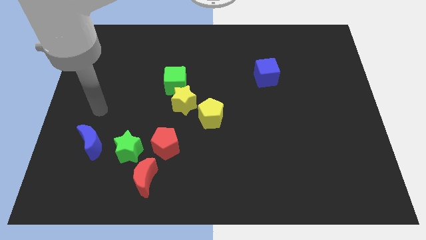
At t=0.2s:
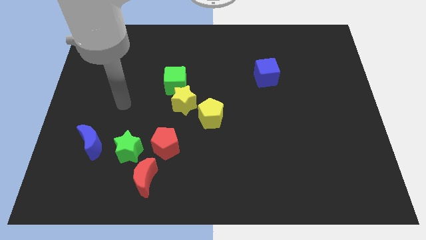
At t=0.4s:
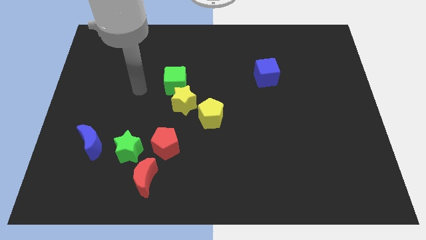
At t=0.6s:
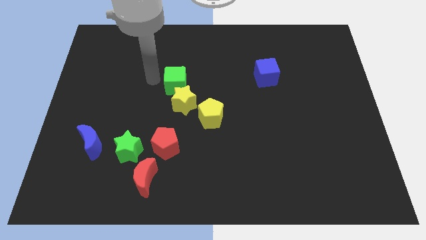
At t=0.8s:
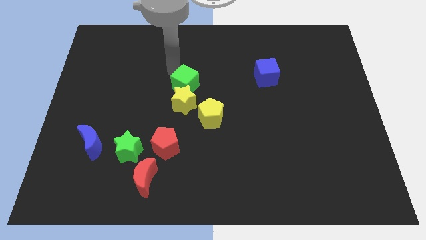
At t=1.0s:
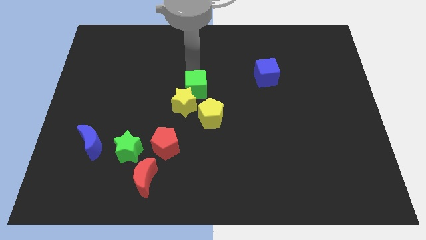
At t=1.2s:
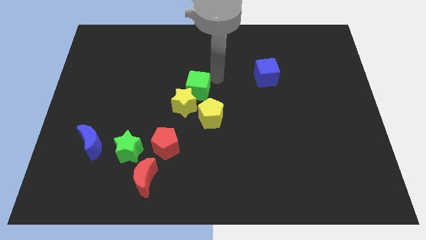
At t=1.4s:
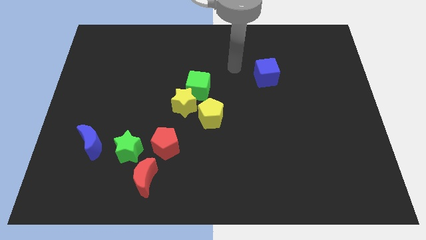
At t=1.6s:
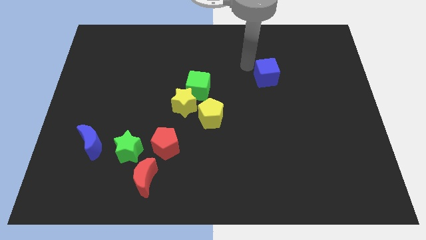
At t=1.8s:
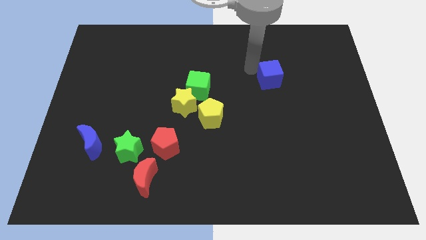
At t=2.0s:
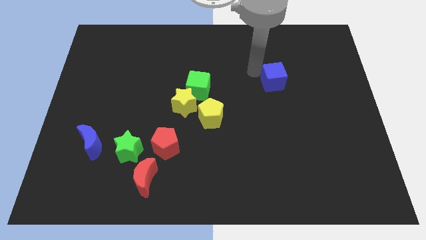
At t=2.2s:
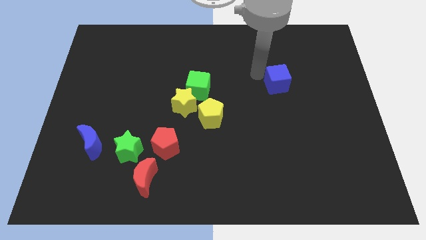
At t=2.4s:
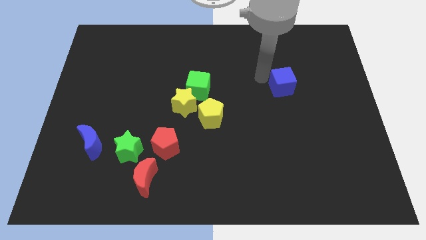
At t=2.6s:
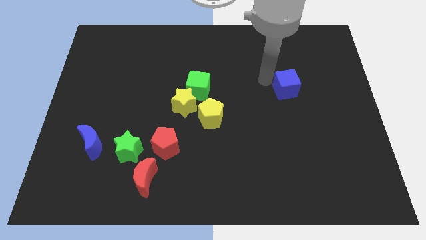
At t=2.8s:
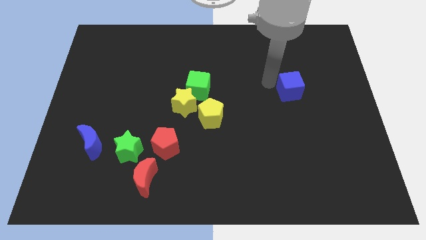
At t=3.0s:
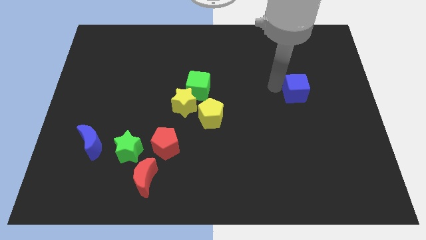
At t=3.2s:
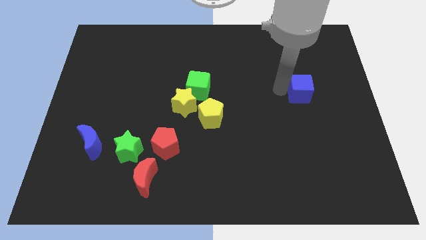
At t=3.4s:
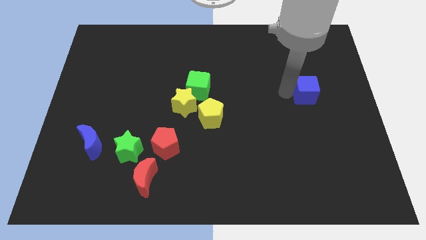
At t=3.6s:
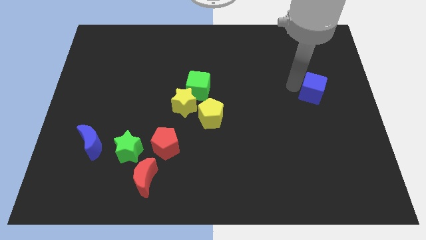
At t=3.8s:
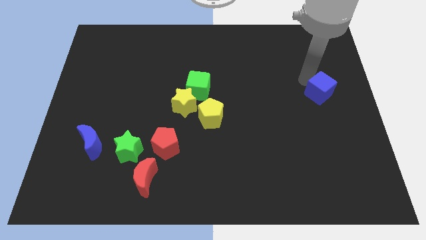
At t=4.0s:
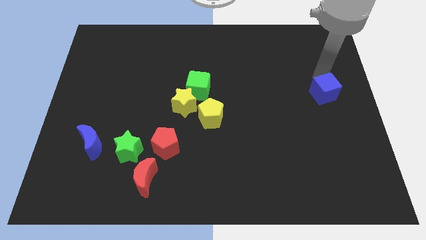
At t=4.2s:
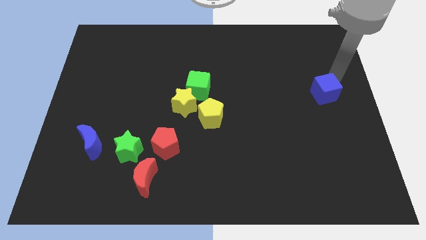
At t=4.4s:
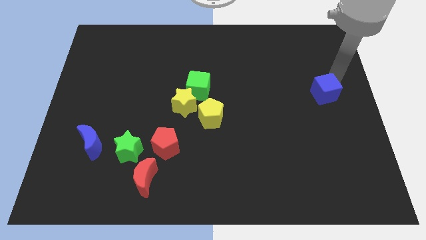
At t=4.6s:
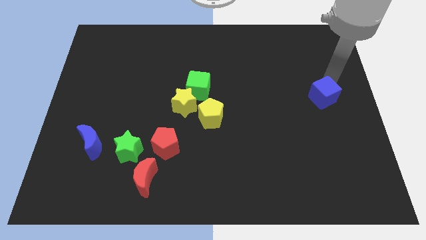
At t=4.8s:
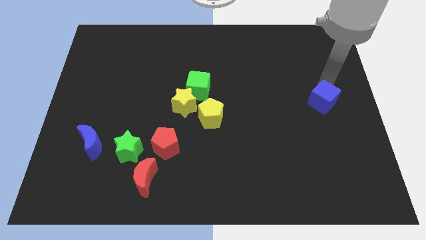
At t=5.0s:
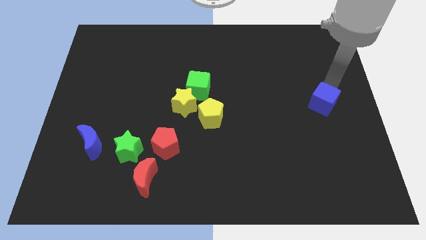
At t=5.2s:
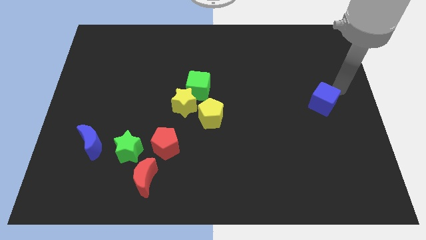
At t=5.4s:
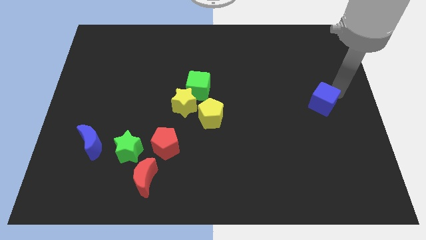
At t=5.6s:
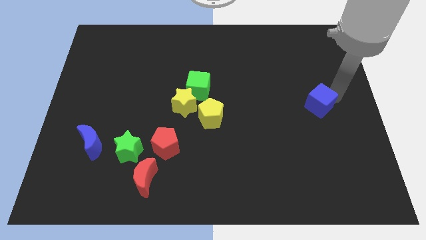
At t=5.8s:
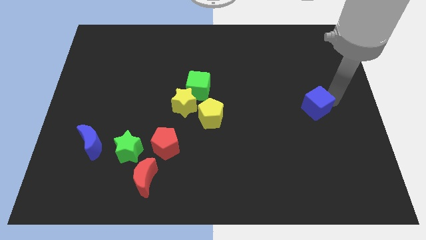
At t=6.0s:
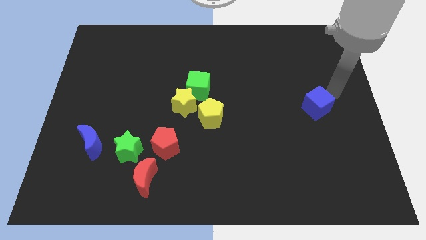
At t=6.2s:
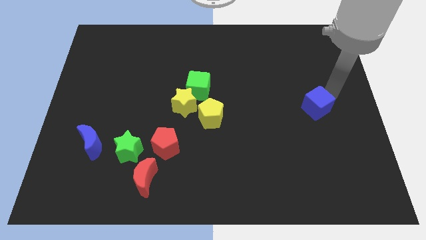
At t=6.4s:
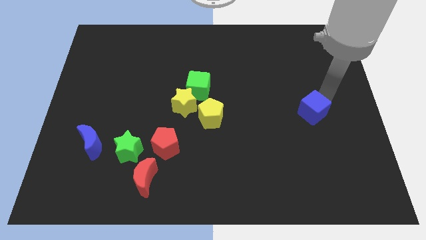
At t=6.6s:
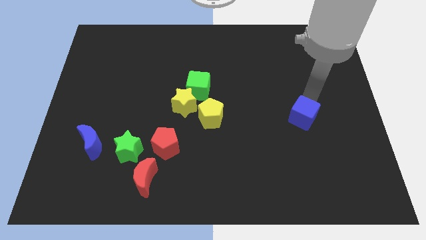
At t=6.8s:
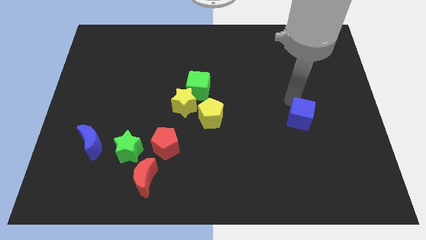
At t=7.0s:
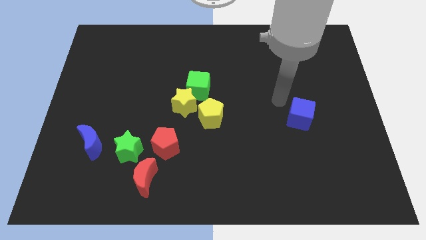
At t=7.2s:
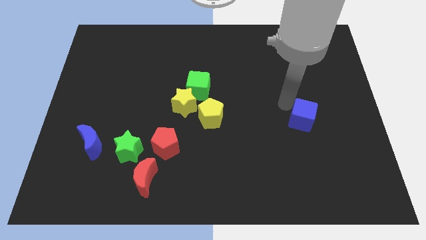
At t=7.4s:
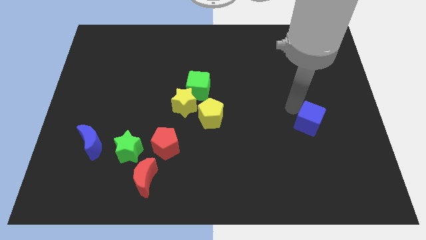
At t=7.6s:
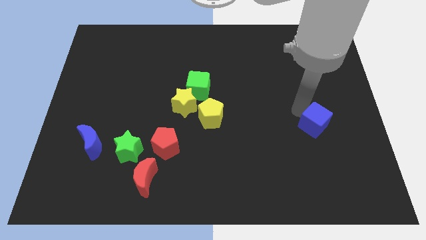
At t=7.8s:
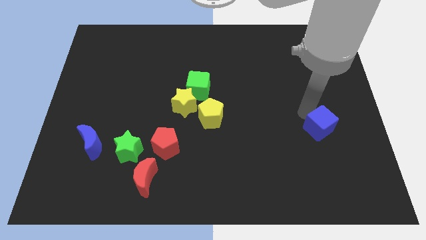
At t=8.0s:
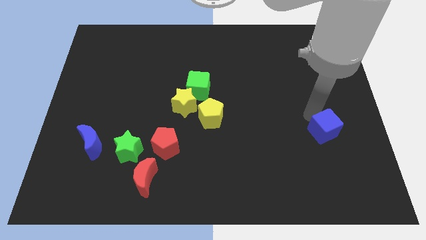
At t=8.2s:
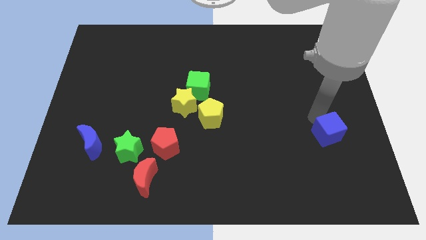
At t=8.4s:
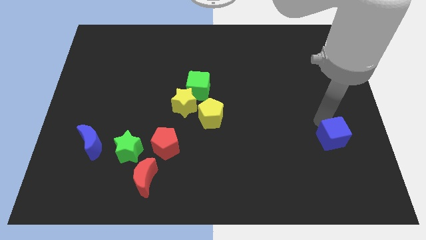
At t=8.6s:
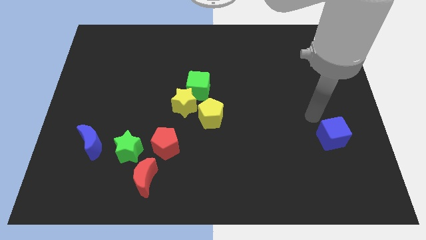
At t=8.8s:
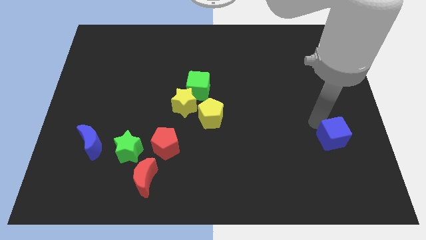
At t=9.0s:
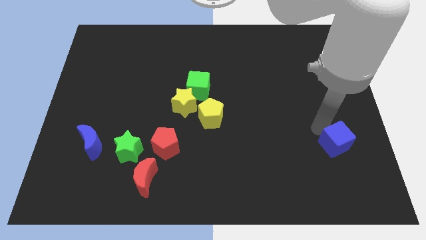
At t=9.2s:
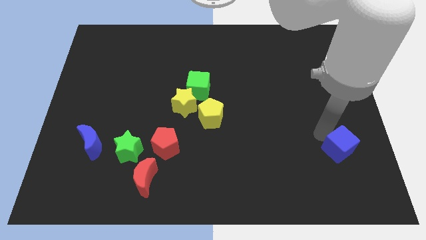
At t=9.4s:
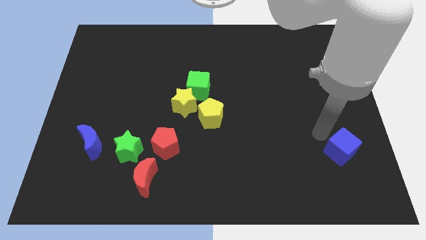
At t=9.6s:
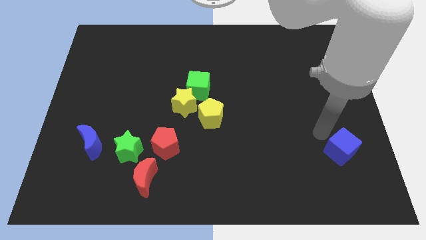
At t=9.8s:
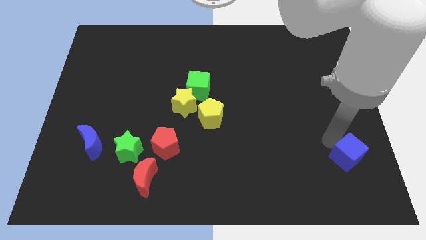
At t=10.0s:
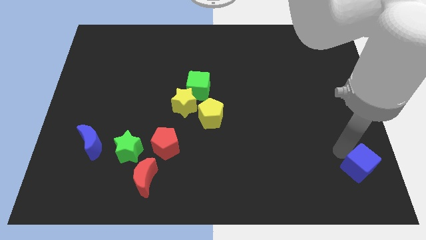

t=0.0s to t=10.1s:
move the blue cube to the bottom right corner

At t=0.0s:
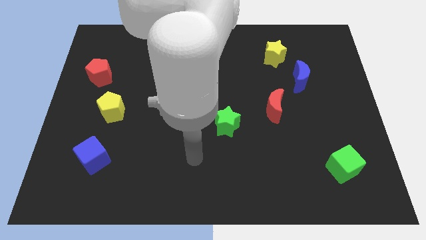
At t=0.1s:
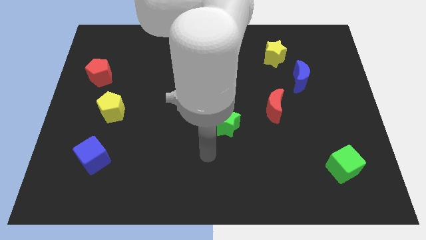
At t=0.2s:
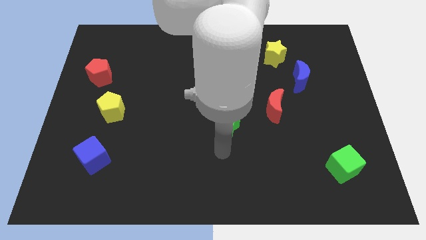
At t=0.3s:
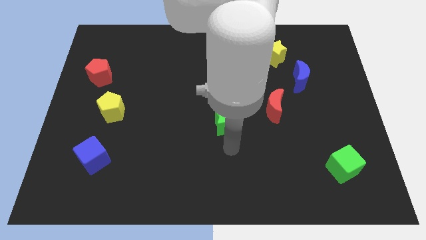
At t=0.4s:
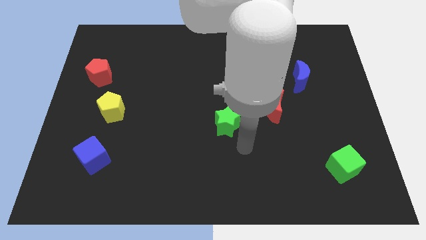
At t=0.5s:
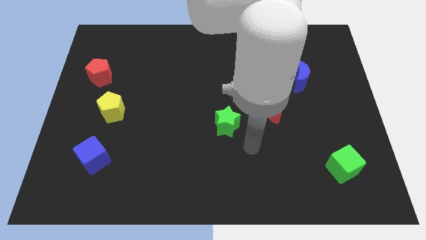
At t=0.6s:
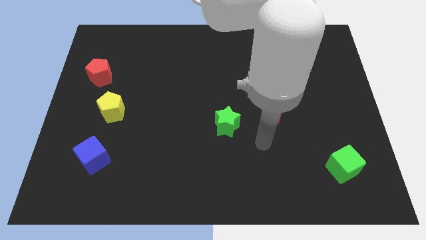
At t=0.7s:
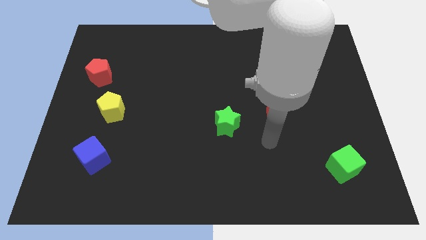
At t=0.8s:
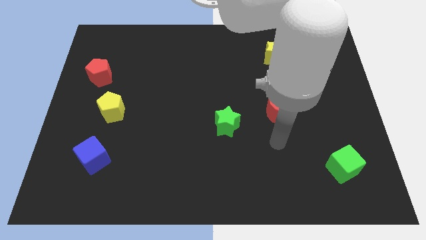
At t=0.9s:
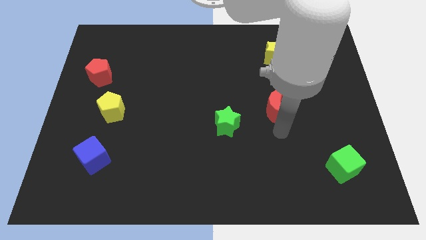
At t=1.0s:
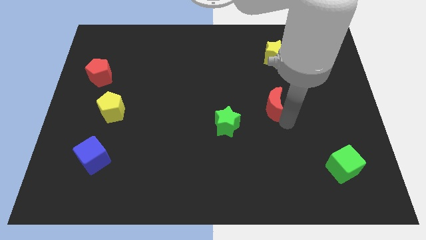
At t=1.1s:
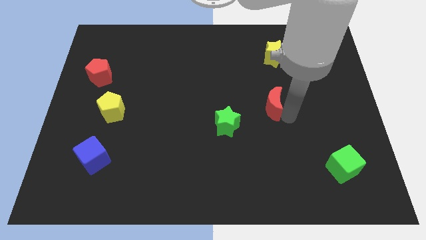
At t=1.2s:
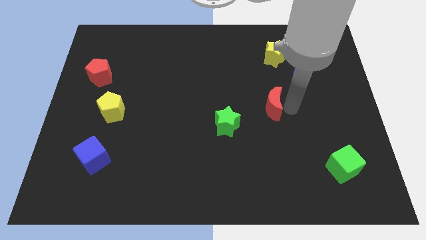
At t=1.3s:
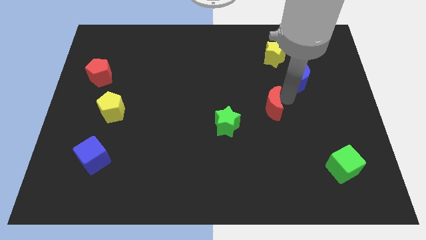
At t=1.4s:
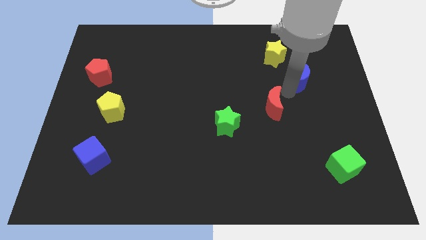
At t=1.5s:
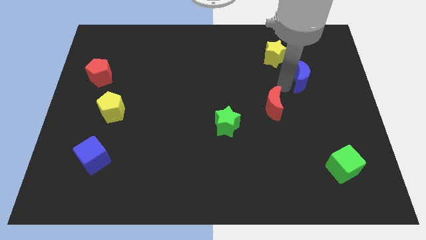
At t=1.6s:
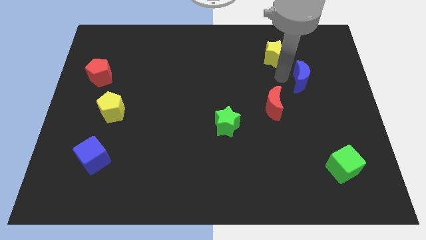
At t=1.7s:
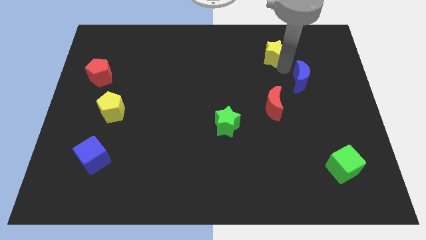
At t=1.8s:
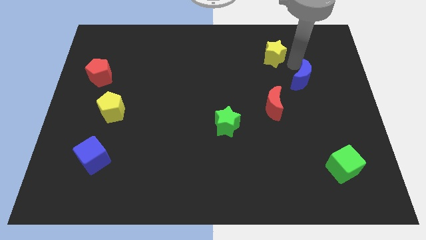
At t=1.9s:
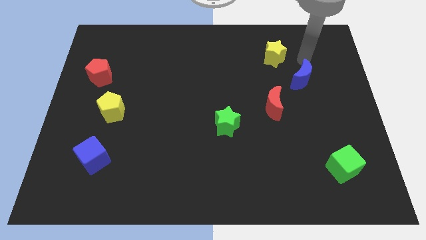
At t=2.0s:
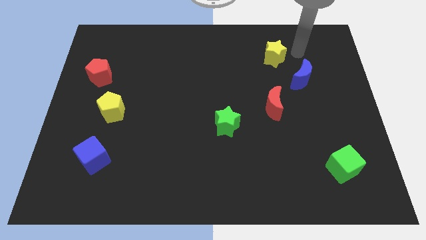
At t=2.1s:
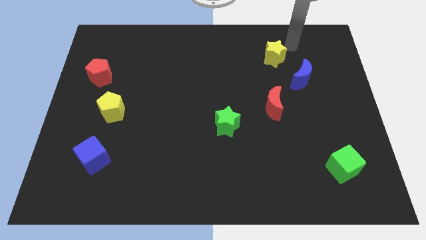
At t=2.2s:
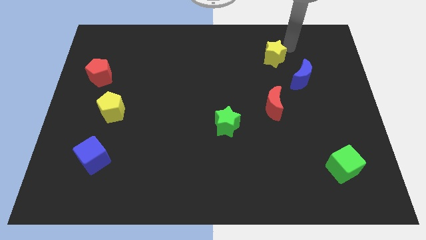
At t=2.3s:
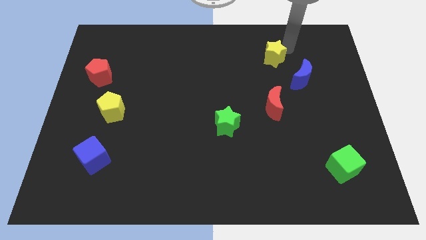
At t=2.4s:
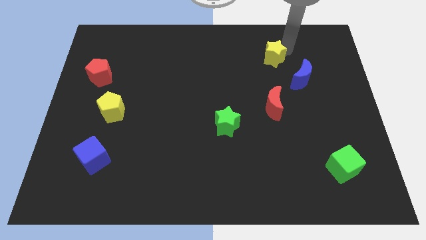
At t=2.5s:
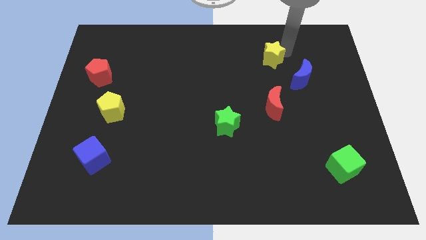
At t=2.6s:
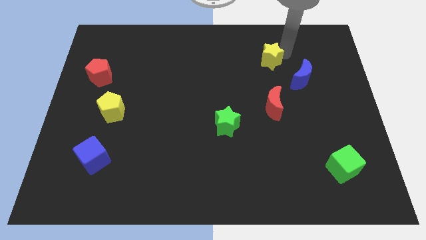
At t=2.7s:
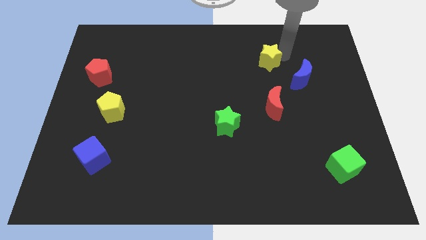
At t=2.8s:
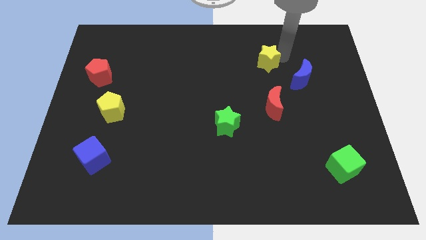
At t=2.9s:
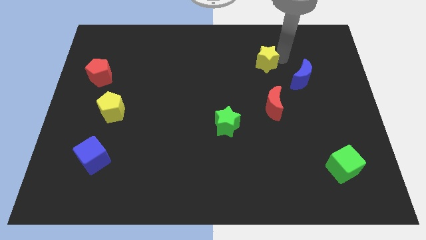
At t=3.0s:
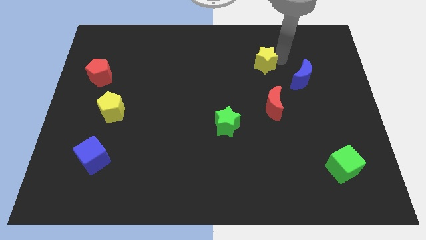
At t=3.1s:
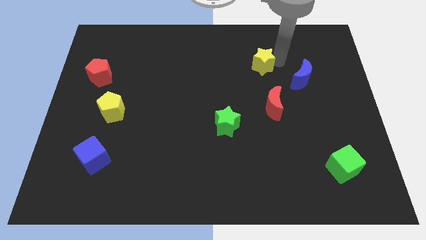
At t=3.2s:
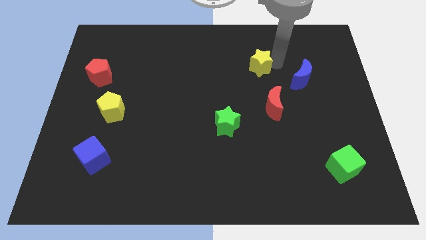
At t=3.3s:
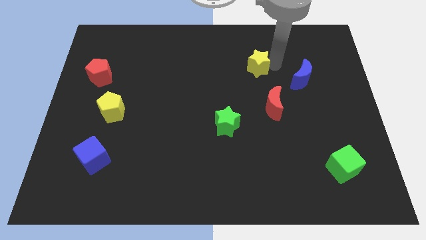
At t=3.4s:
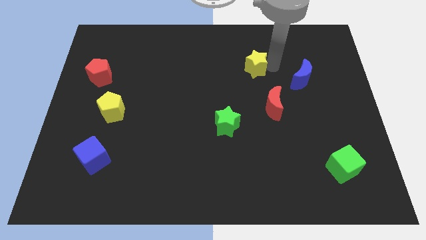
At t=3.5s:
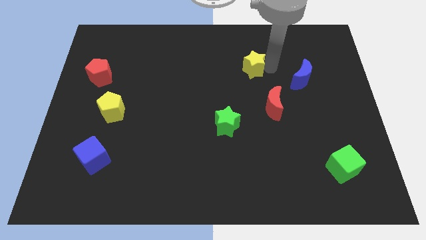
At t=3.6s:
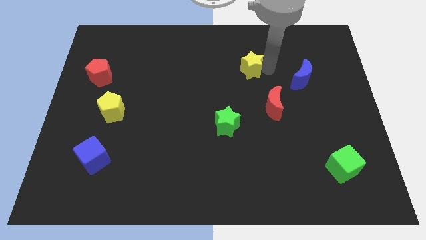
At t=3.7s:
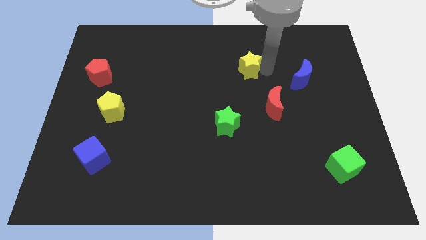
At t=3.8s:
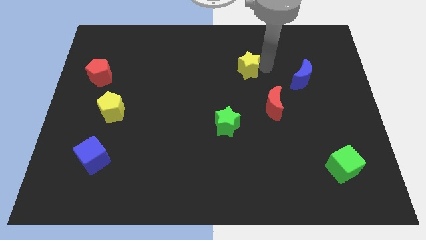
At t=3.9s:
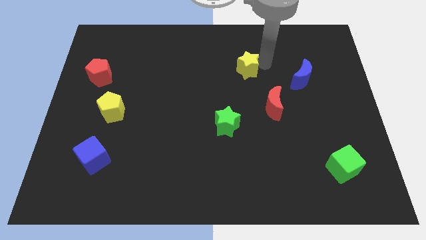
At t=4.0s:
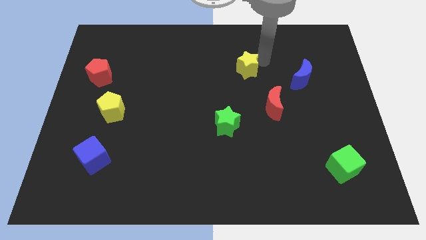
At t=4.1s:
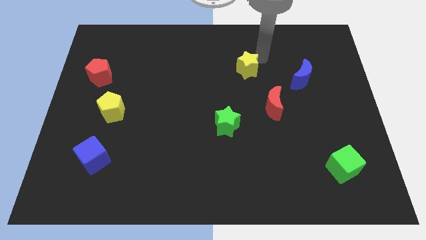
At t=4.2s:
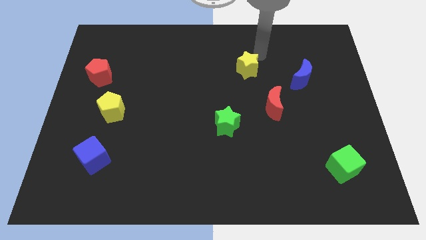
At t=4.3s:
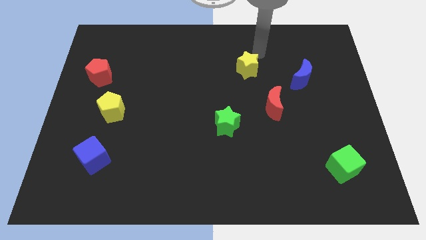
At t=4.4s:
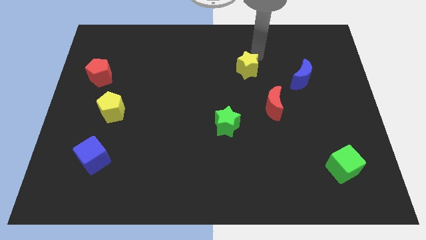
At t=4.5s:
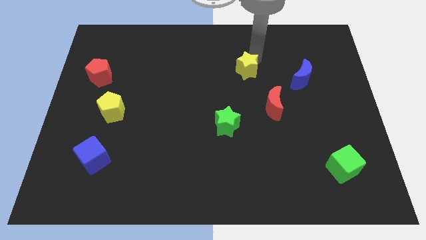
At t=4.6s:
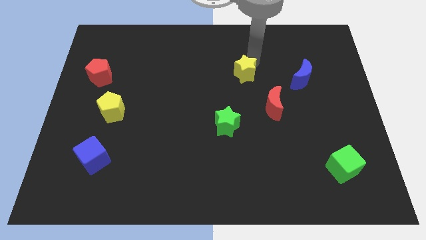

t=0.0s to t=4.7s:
move the yellow star to the center of the board
